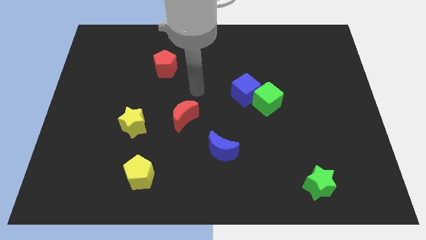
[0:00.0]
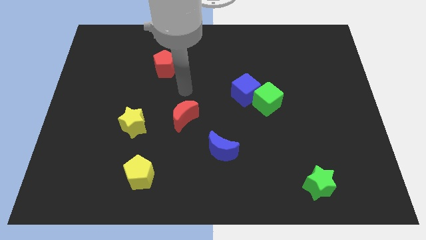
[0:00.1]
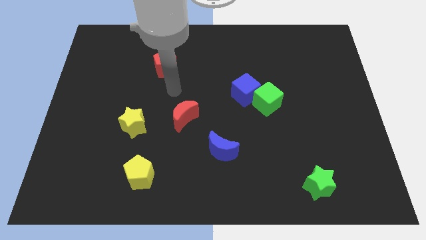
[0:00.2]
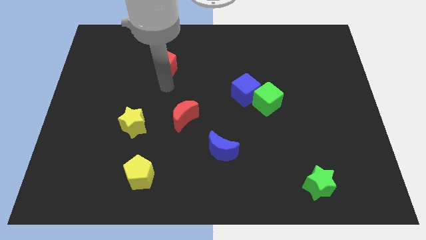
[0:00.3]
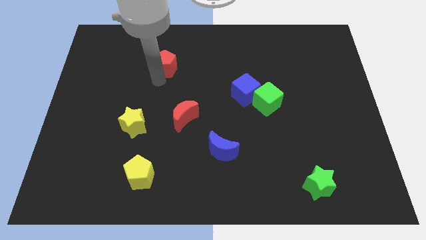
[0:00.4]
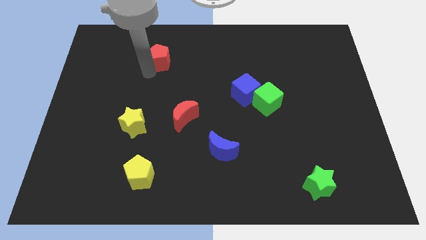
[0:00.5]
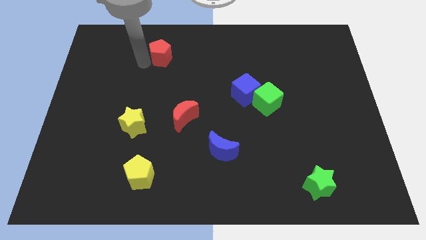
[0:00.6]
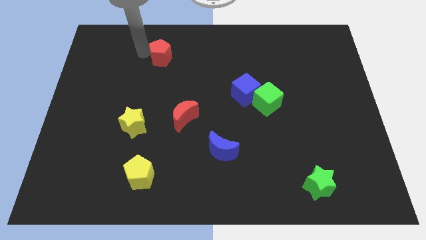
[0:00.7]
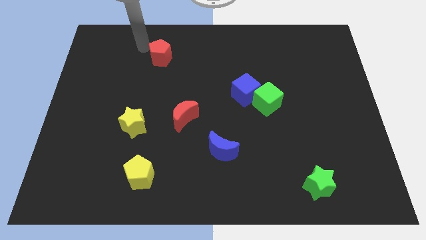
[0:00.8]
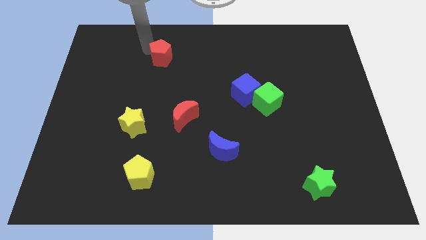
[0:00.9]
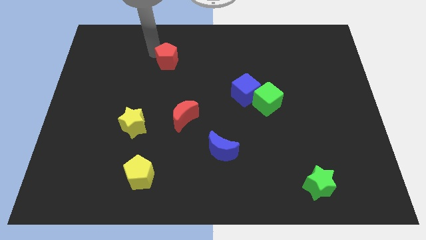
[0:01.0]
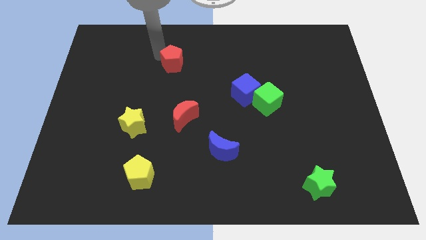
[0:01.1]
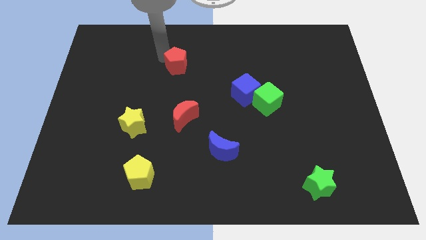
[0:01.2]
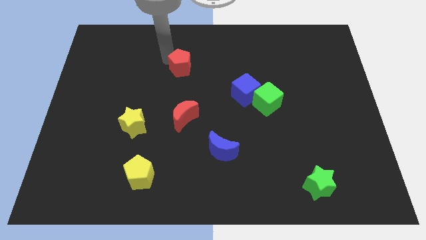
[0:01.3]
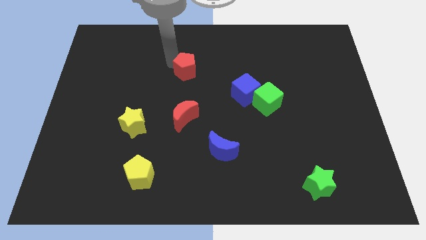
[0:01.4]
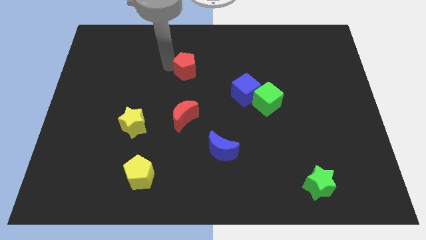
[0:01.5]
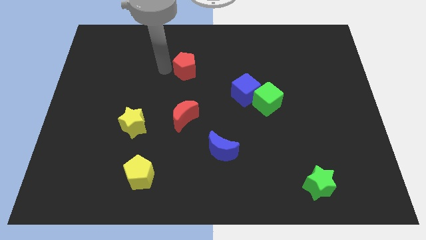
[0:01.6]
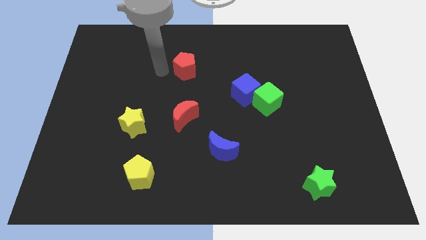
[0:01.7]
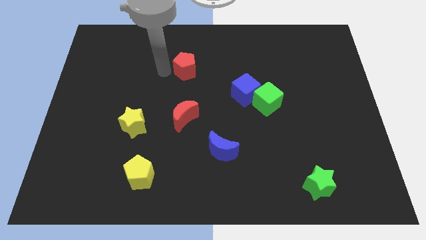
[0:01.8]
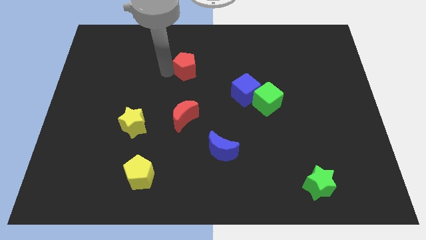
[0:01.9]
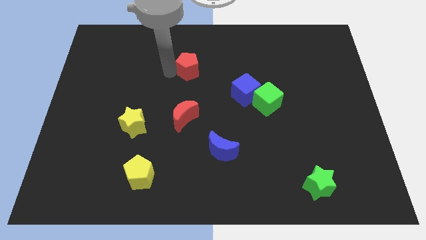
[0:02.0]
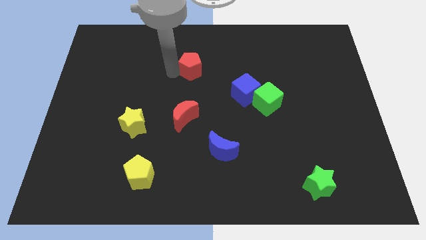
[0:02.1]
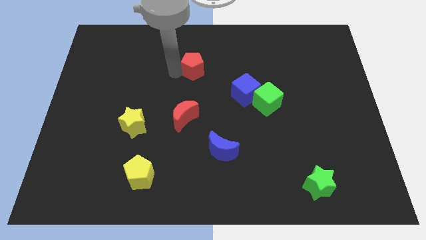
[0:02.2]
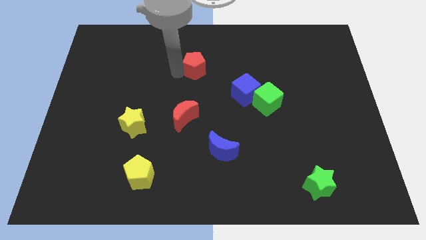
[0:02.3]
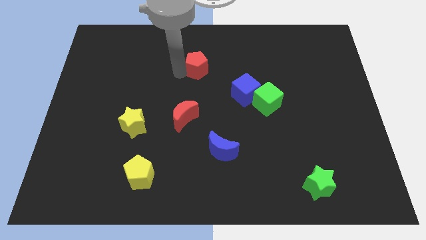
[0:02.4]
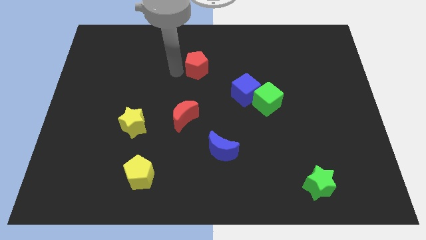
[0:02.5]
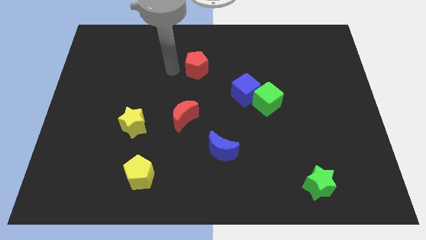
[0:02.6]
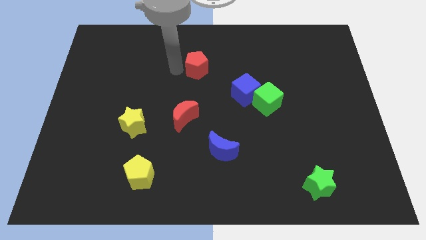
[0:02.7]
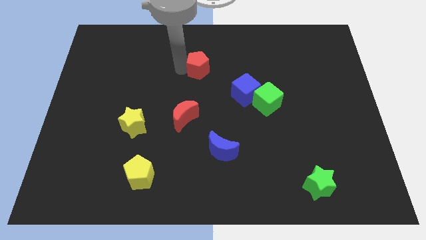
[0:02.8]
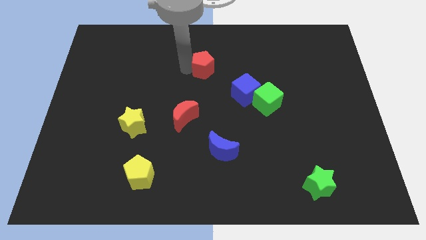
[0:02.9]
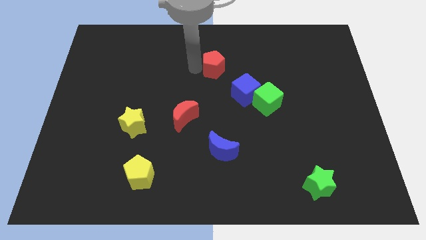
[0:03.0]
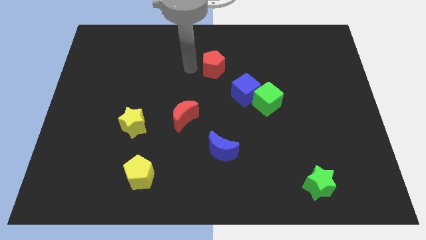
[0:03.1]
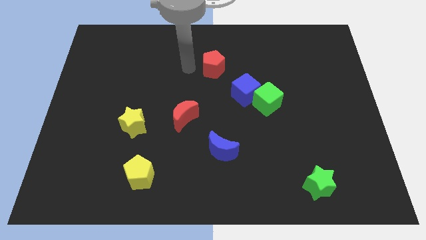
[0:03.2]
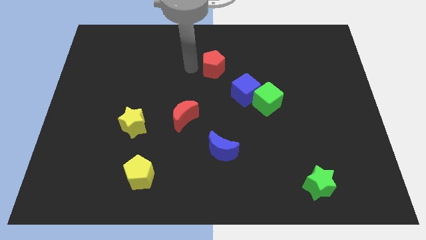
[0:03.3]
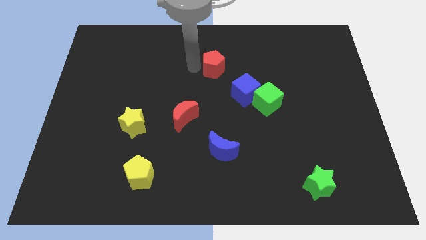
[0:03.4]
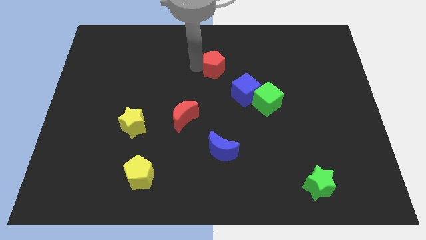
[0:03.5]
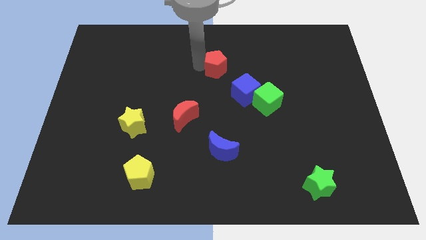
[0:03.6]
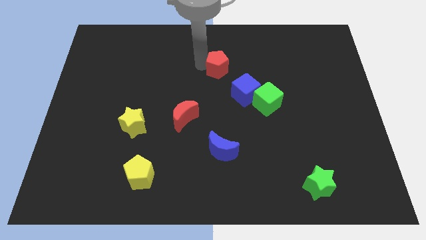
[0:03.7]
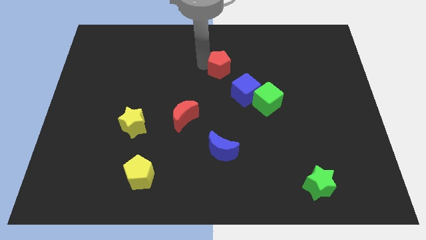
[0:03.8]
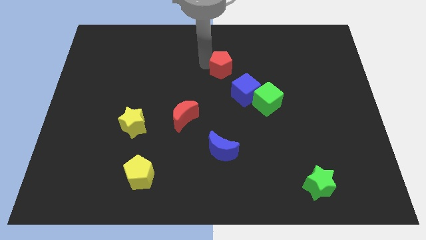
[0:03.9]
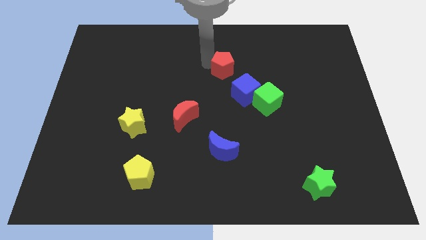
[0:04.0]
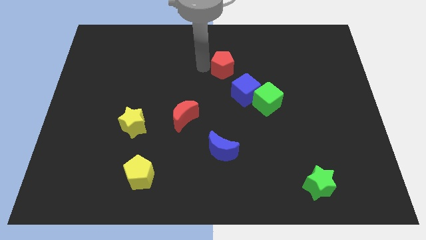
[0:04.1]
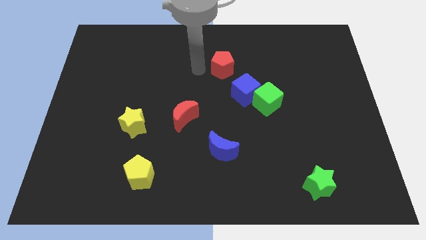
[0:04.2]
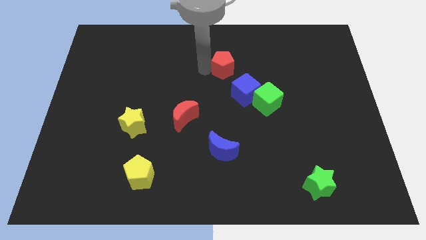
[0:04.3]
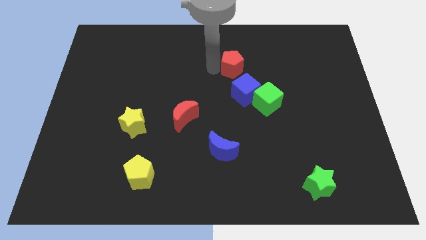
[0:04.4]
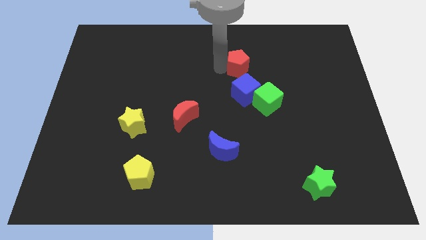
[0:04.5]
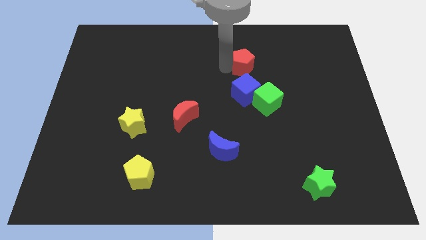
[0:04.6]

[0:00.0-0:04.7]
push the red pentagon to the right

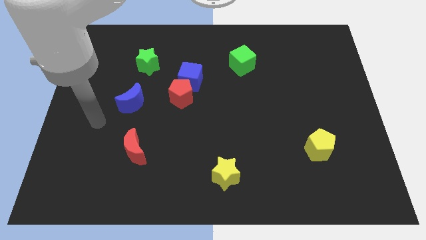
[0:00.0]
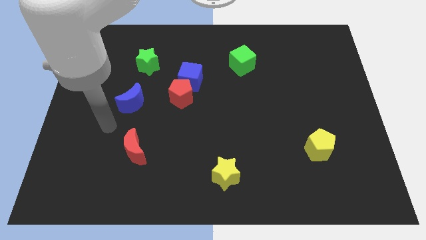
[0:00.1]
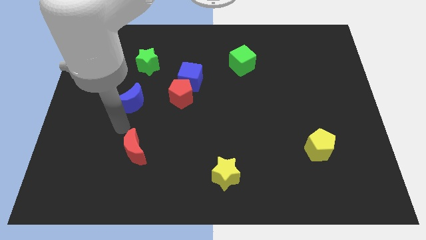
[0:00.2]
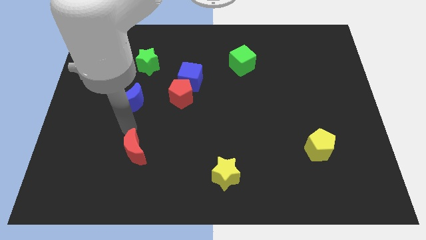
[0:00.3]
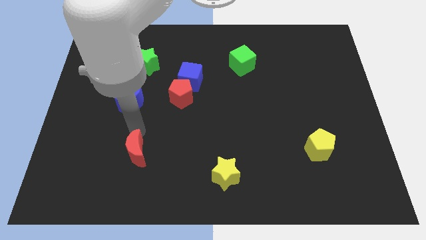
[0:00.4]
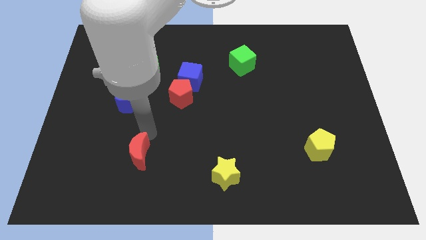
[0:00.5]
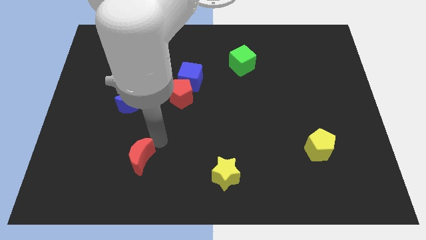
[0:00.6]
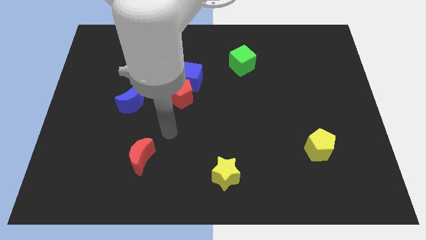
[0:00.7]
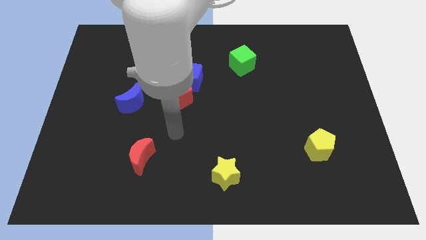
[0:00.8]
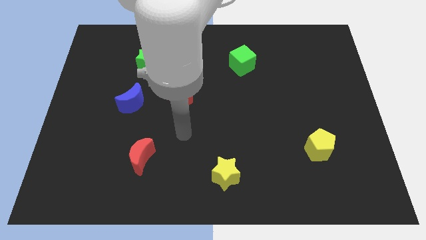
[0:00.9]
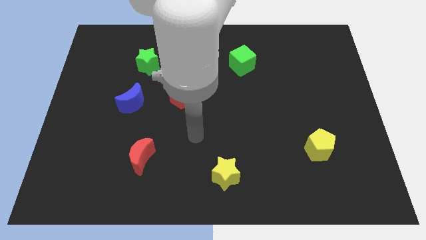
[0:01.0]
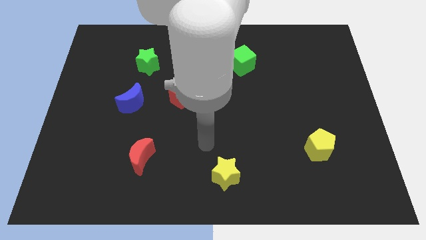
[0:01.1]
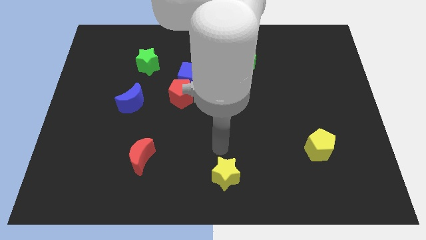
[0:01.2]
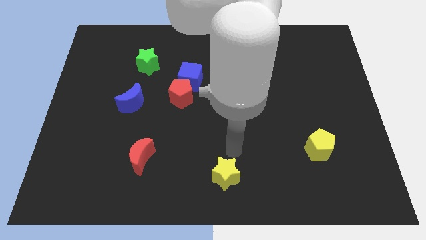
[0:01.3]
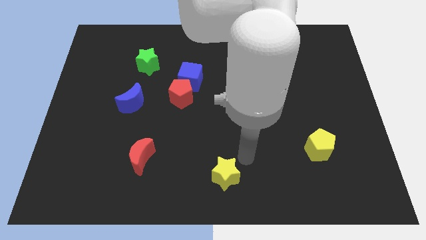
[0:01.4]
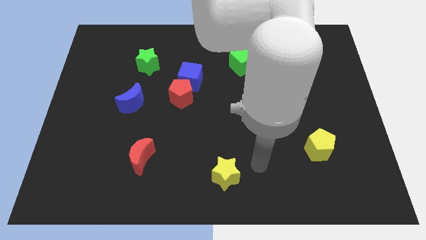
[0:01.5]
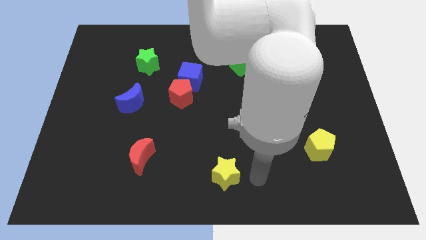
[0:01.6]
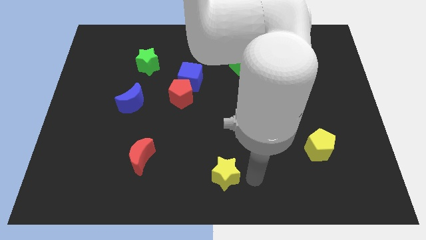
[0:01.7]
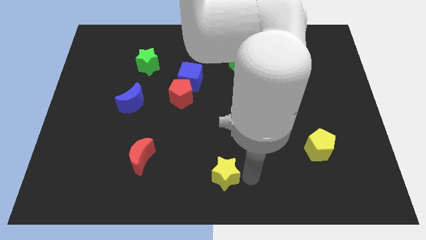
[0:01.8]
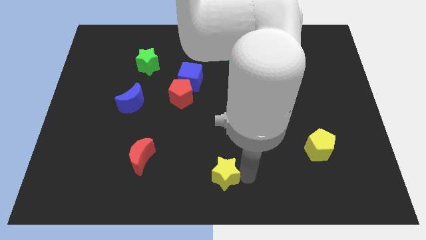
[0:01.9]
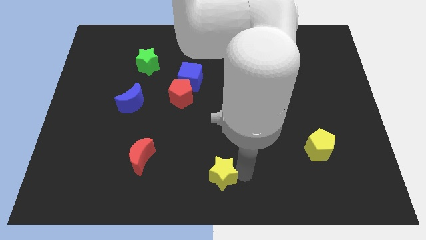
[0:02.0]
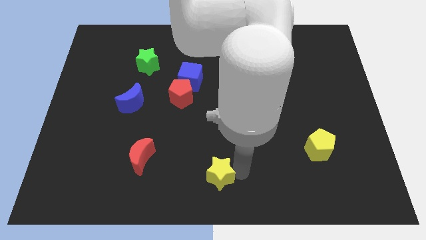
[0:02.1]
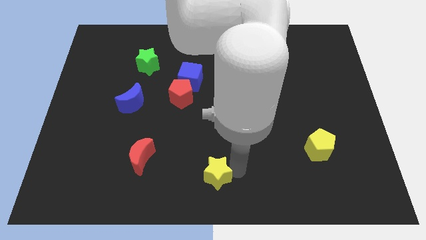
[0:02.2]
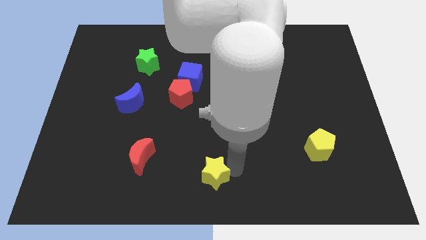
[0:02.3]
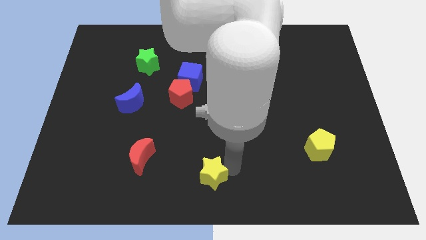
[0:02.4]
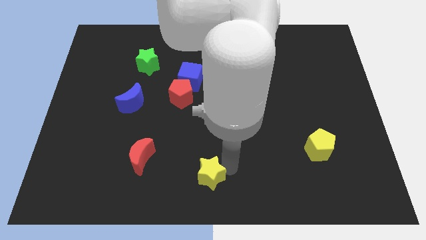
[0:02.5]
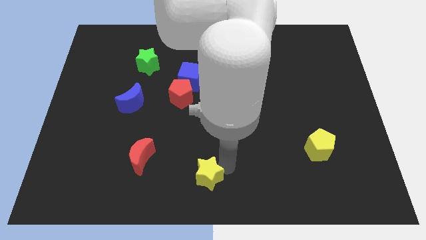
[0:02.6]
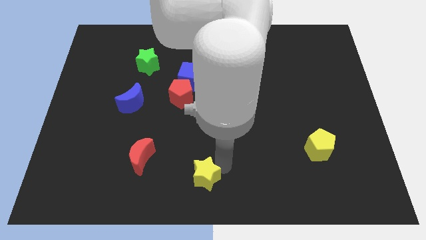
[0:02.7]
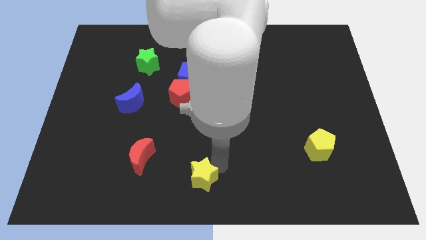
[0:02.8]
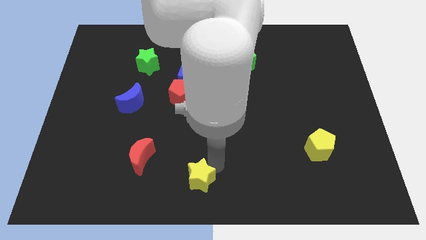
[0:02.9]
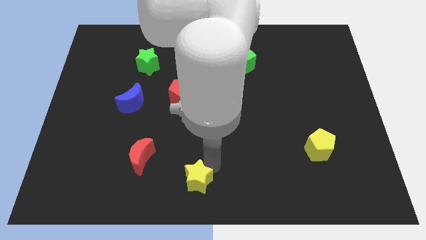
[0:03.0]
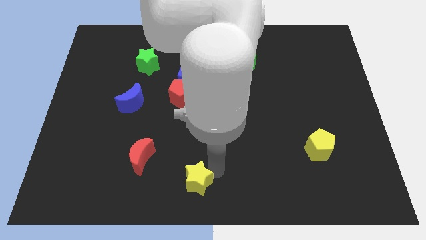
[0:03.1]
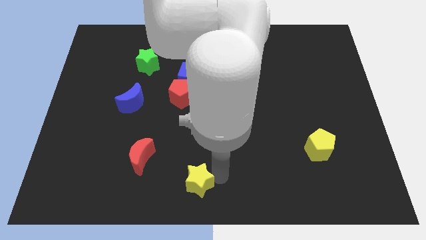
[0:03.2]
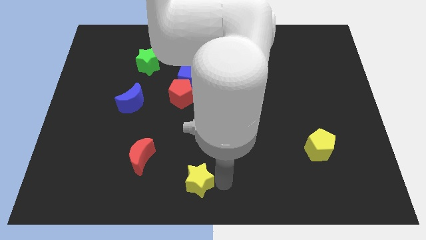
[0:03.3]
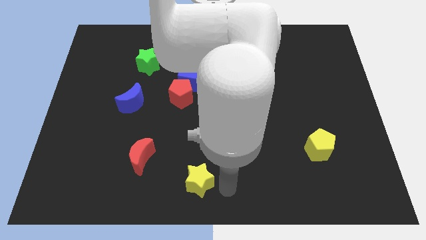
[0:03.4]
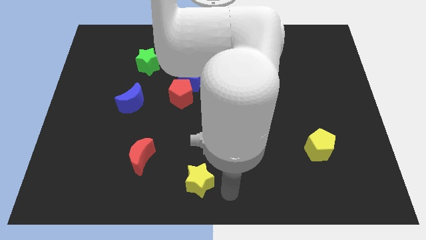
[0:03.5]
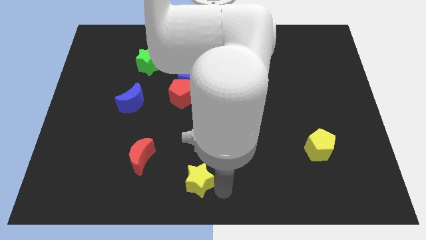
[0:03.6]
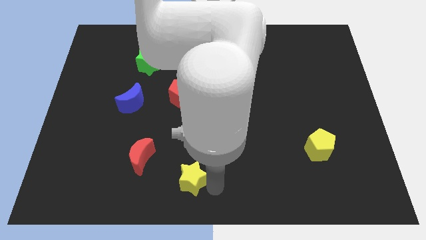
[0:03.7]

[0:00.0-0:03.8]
slide the yellow star left a bit
